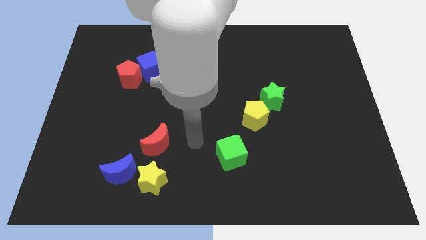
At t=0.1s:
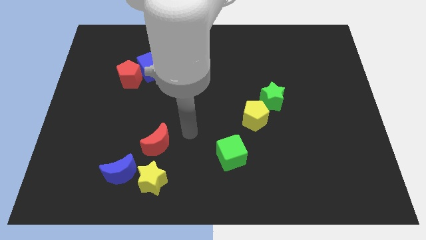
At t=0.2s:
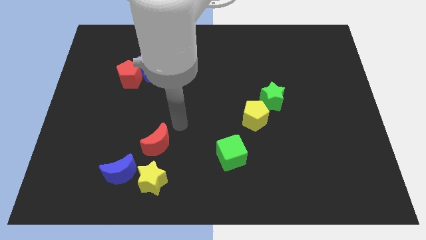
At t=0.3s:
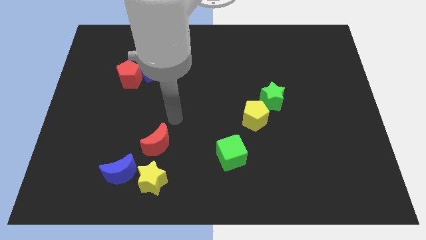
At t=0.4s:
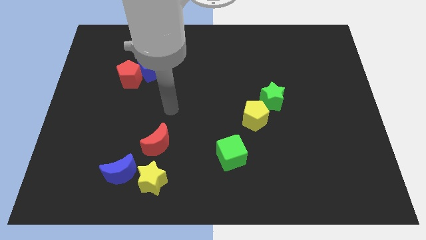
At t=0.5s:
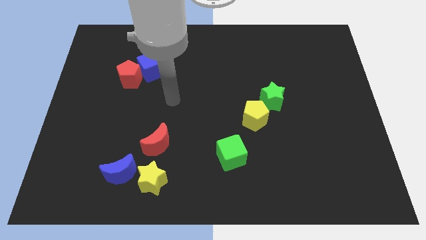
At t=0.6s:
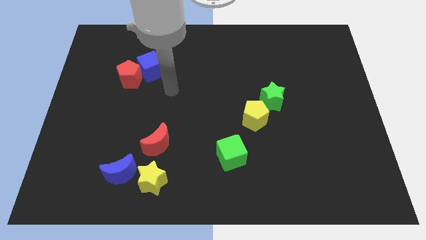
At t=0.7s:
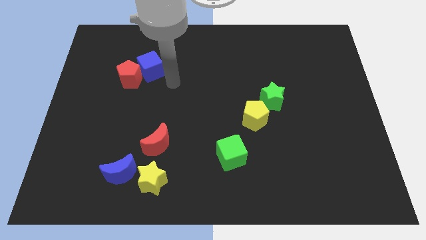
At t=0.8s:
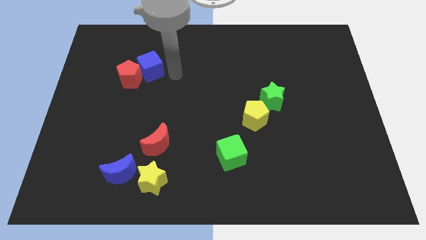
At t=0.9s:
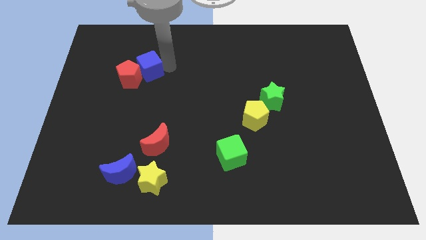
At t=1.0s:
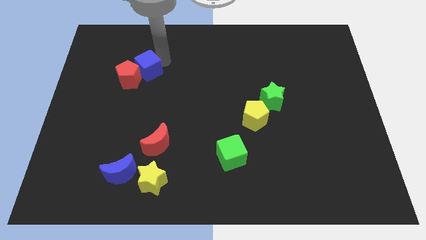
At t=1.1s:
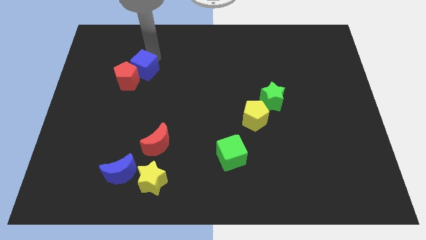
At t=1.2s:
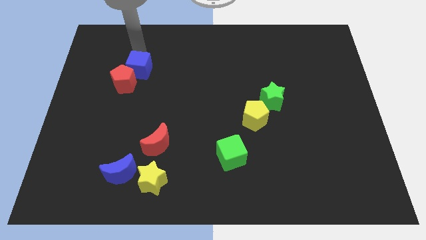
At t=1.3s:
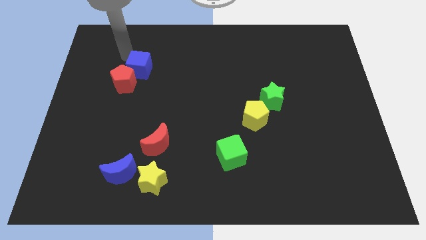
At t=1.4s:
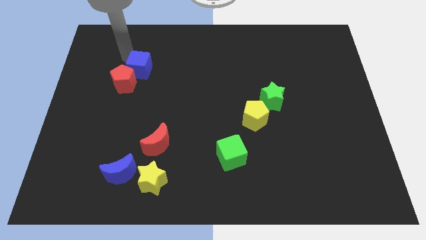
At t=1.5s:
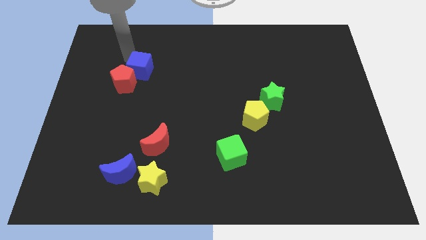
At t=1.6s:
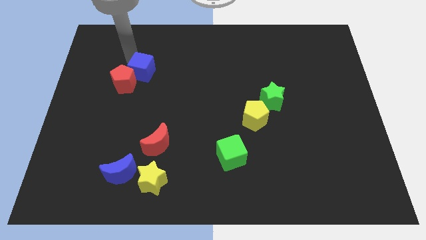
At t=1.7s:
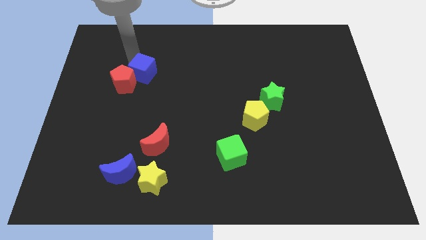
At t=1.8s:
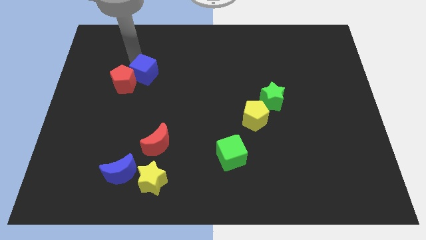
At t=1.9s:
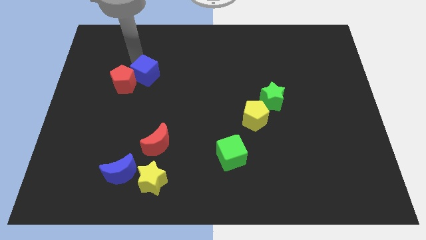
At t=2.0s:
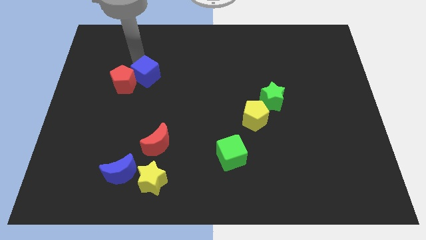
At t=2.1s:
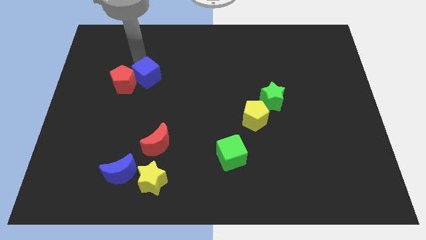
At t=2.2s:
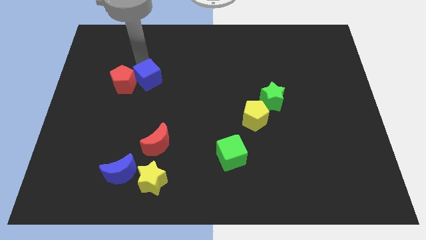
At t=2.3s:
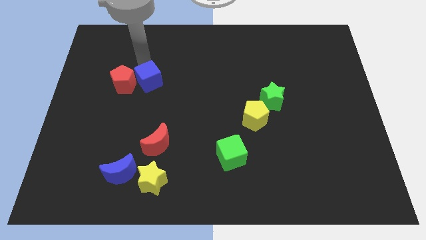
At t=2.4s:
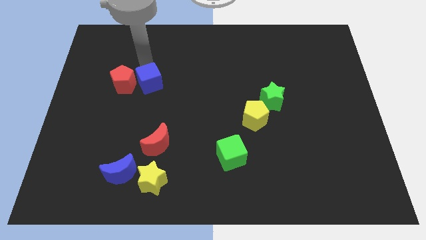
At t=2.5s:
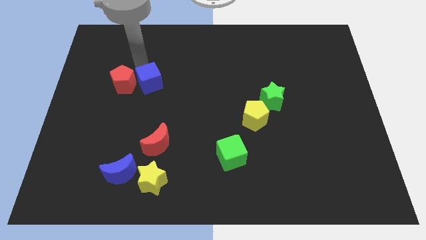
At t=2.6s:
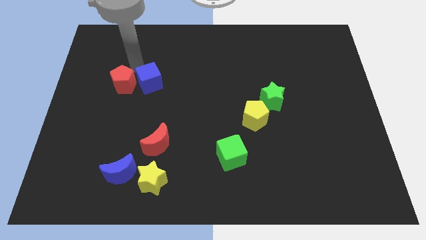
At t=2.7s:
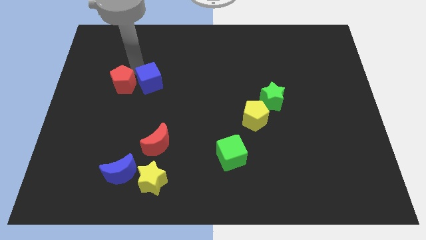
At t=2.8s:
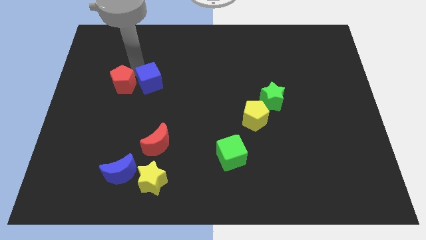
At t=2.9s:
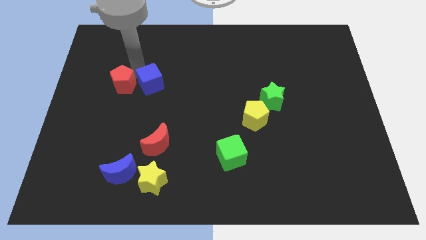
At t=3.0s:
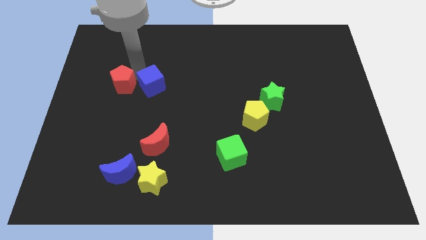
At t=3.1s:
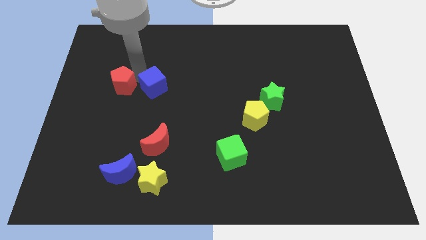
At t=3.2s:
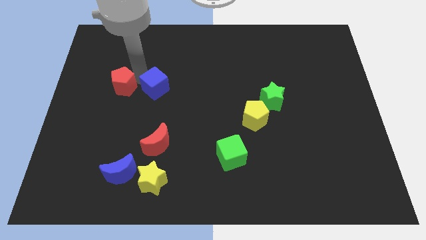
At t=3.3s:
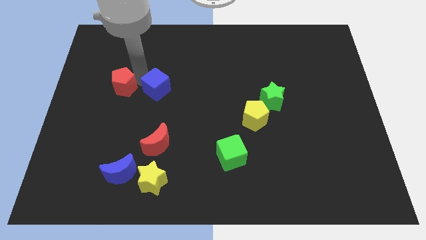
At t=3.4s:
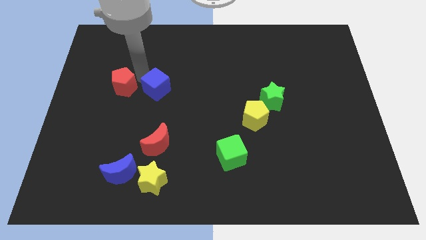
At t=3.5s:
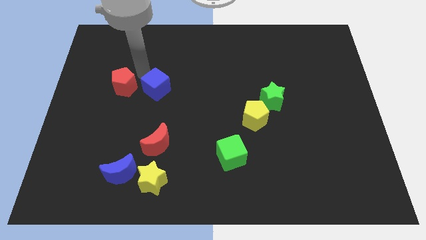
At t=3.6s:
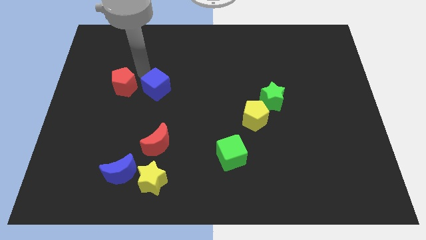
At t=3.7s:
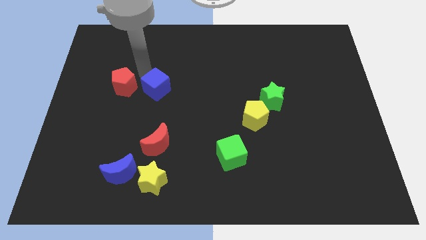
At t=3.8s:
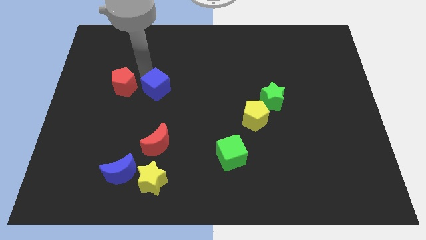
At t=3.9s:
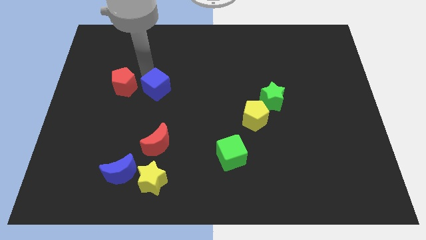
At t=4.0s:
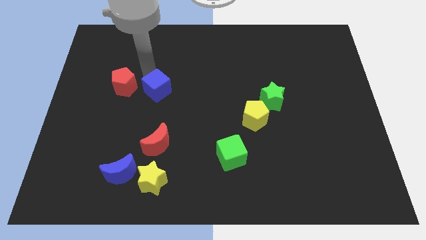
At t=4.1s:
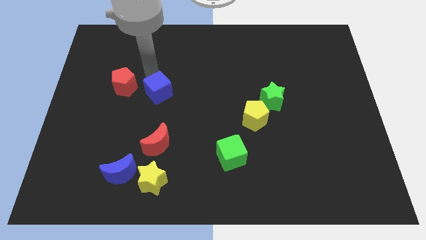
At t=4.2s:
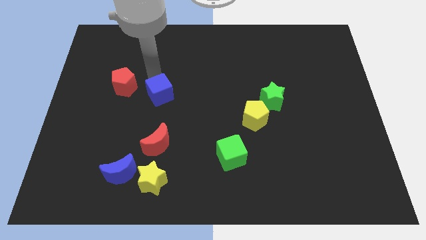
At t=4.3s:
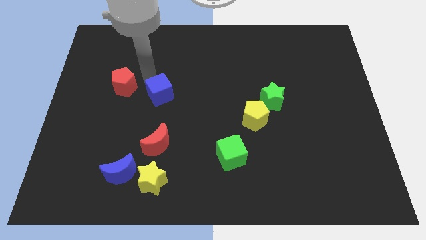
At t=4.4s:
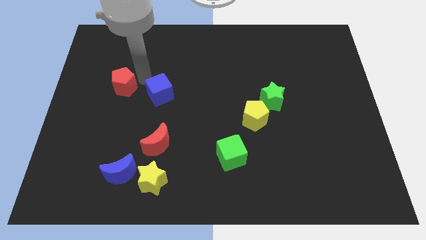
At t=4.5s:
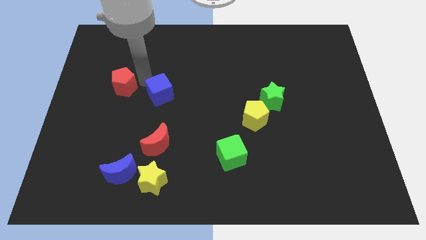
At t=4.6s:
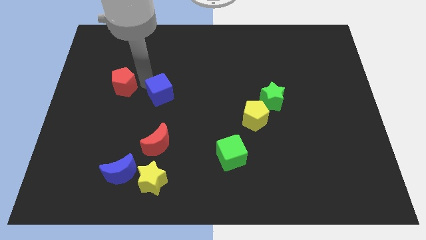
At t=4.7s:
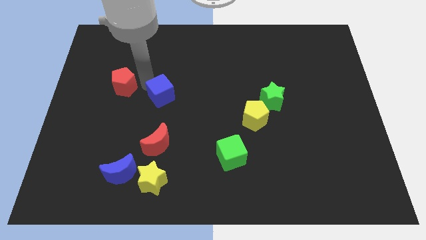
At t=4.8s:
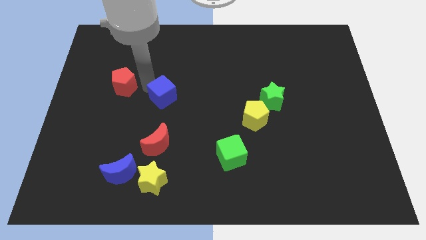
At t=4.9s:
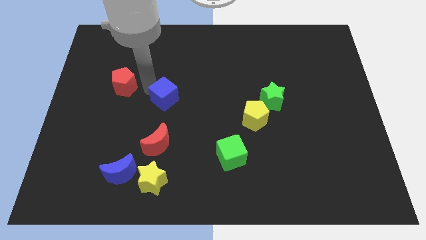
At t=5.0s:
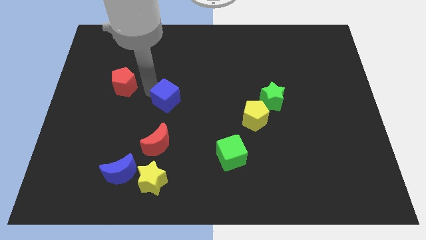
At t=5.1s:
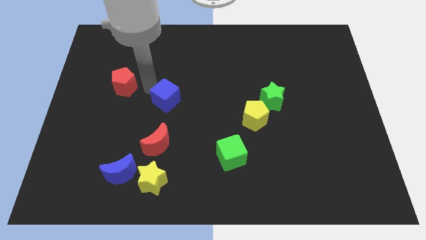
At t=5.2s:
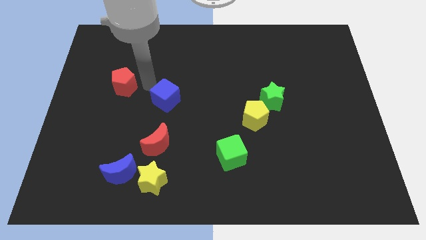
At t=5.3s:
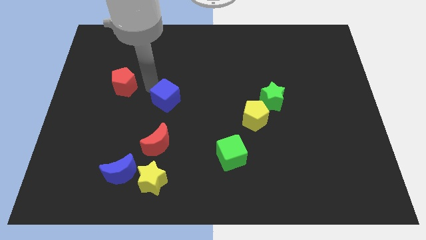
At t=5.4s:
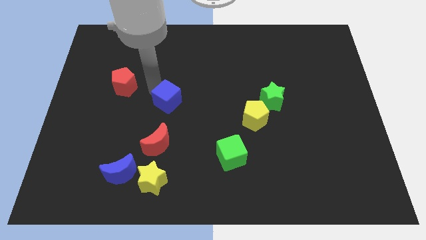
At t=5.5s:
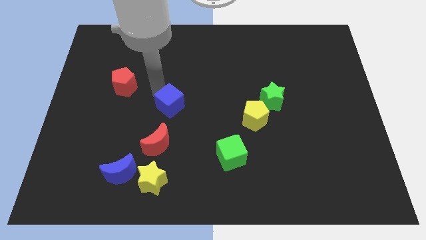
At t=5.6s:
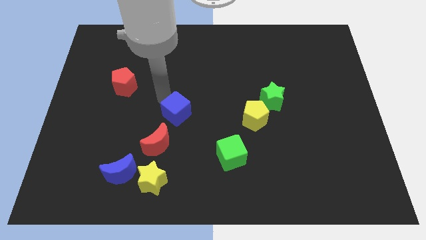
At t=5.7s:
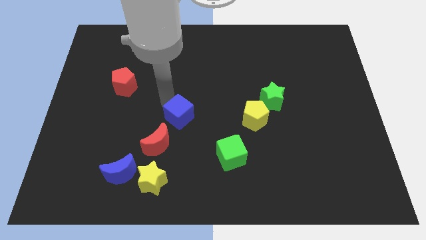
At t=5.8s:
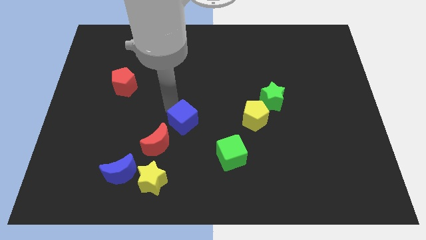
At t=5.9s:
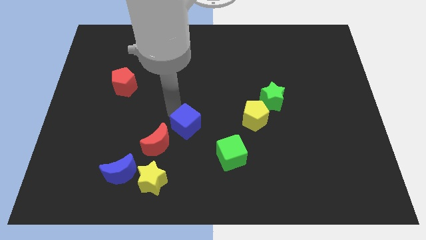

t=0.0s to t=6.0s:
move the blue cube to the top left of the green cube

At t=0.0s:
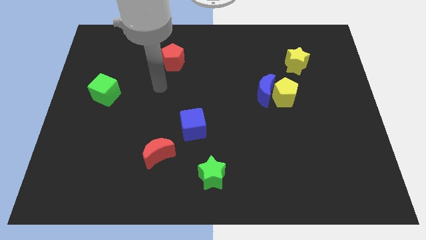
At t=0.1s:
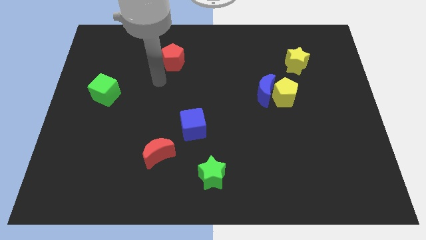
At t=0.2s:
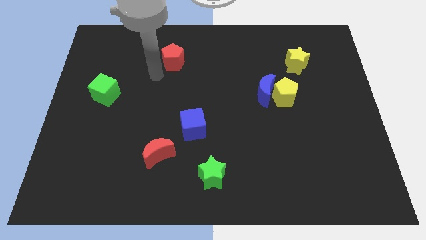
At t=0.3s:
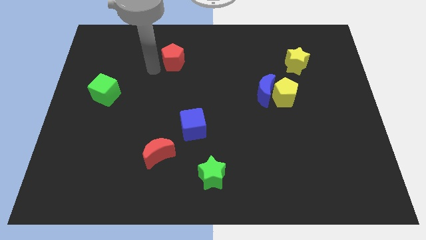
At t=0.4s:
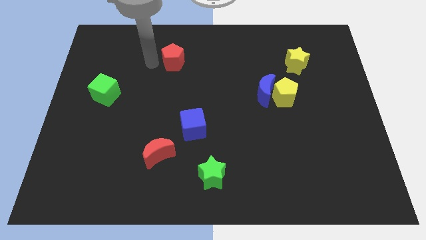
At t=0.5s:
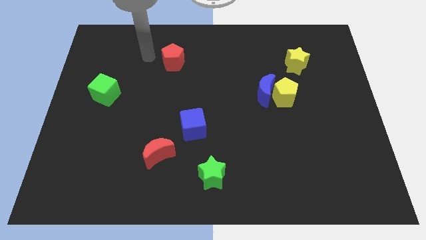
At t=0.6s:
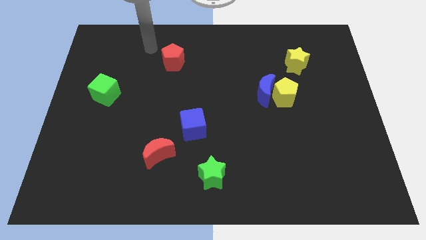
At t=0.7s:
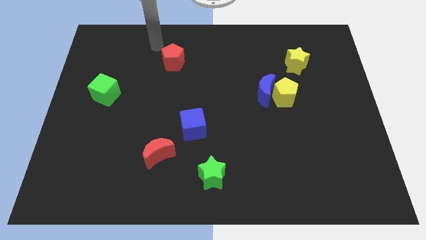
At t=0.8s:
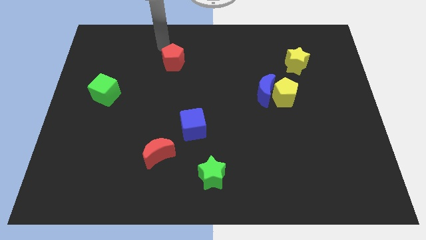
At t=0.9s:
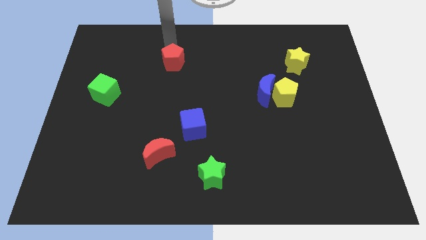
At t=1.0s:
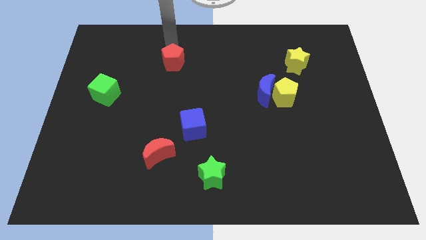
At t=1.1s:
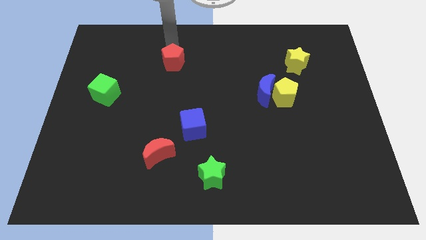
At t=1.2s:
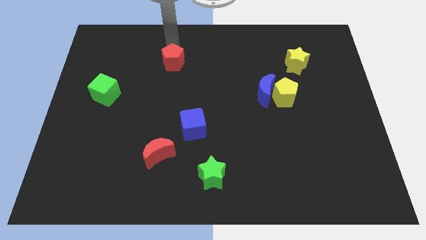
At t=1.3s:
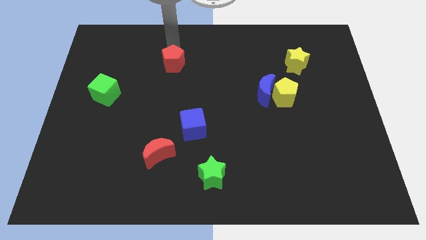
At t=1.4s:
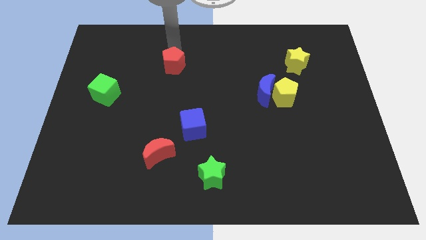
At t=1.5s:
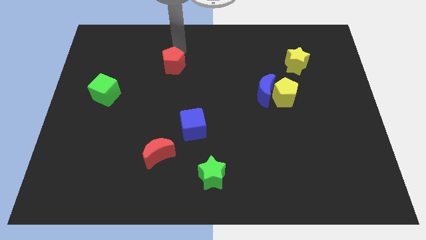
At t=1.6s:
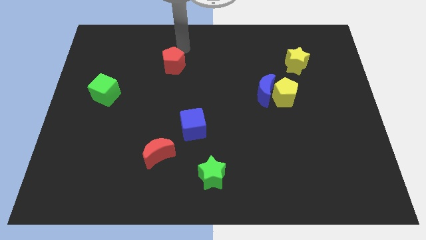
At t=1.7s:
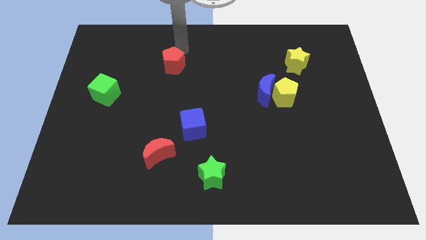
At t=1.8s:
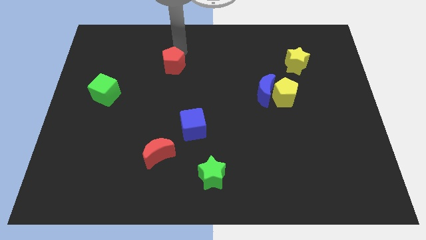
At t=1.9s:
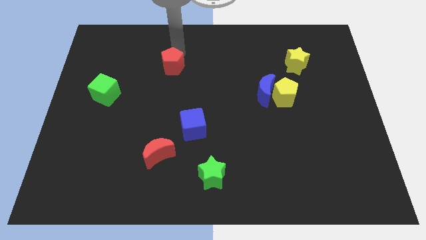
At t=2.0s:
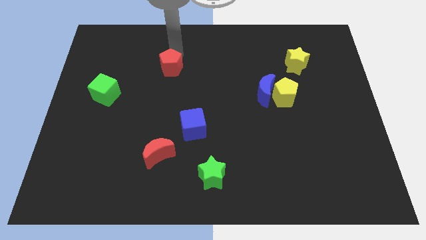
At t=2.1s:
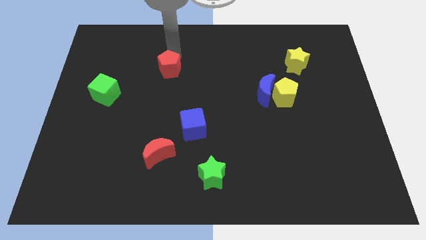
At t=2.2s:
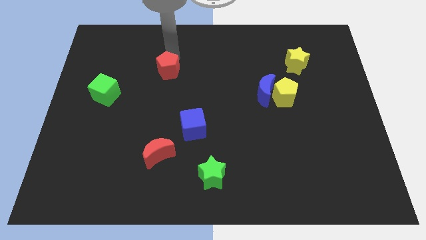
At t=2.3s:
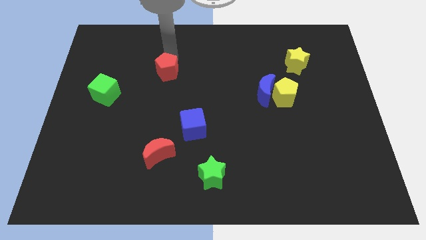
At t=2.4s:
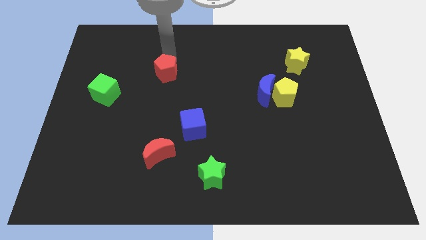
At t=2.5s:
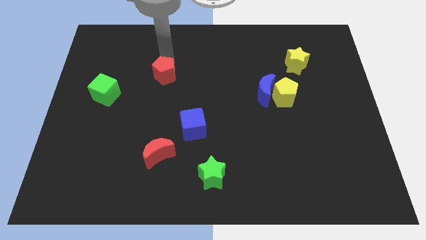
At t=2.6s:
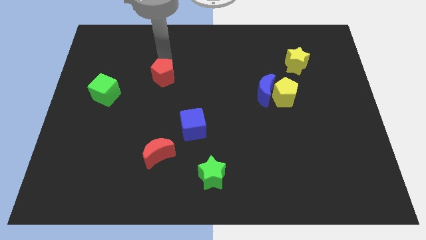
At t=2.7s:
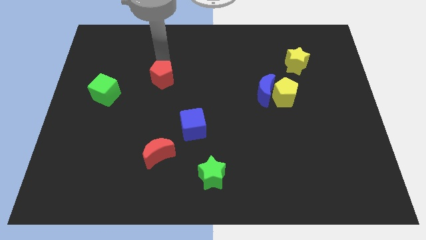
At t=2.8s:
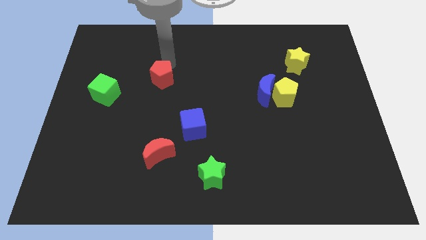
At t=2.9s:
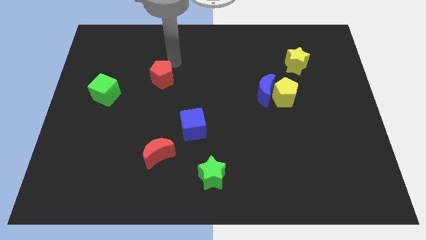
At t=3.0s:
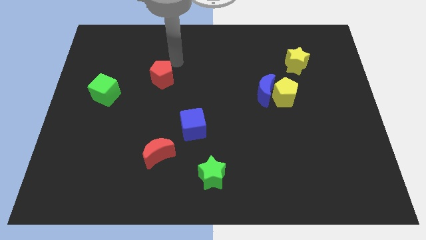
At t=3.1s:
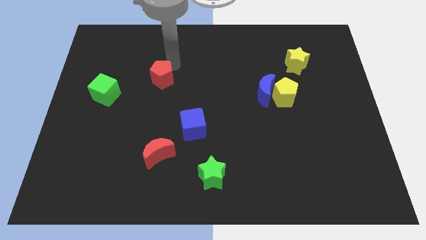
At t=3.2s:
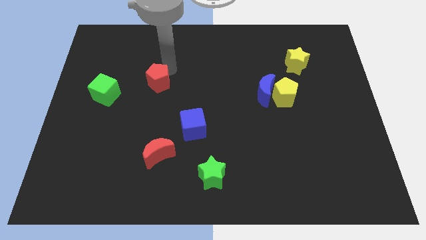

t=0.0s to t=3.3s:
slide the red pentagon right of the green cube
